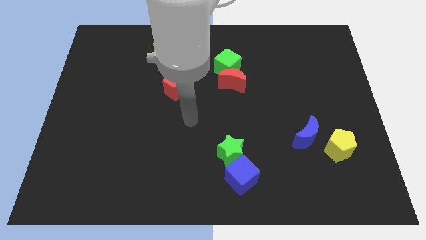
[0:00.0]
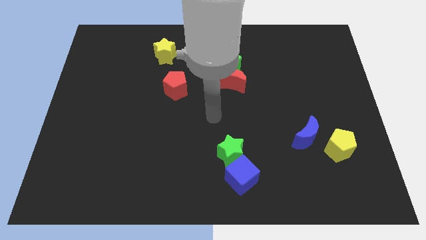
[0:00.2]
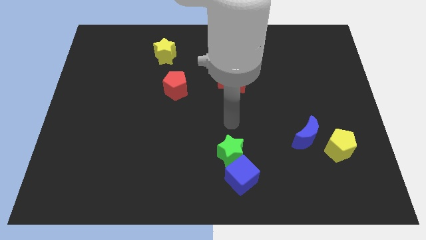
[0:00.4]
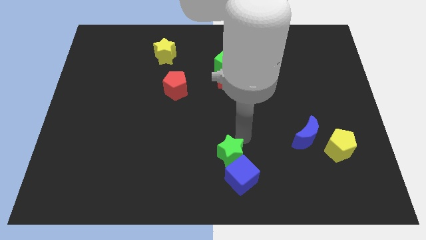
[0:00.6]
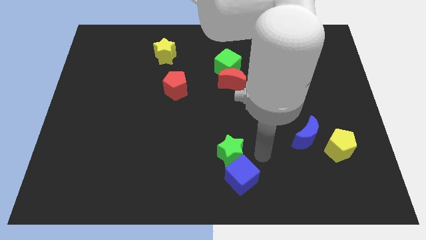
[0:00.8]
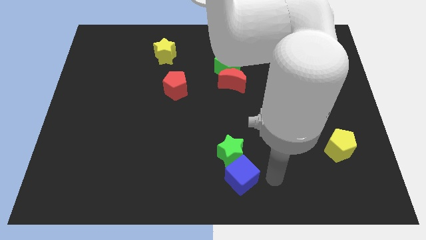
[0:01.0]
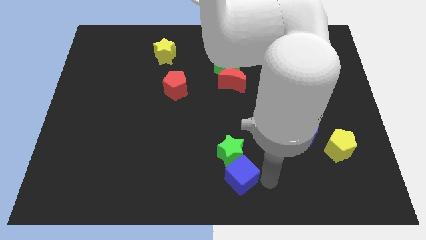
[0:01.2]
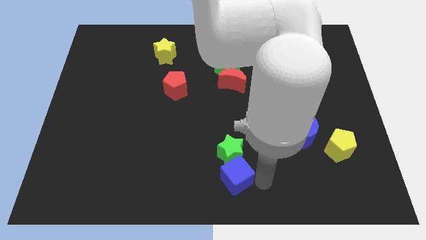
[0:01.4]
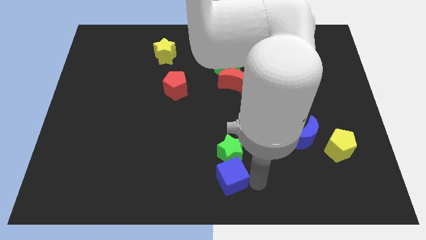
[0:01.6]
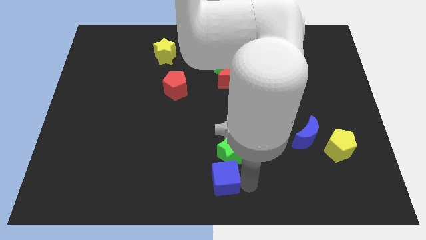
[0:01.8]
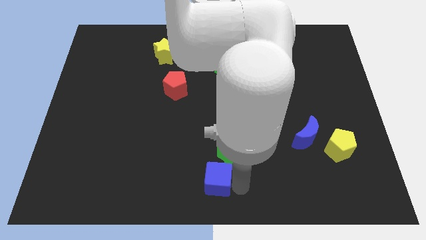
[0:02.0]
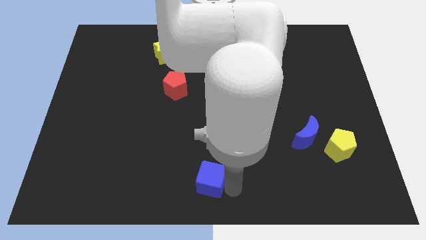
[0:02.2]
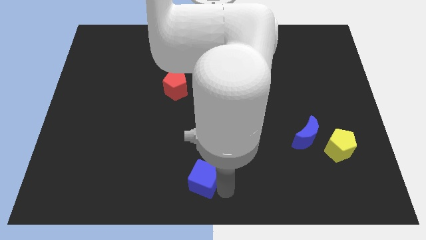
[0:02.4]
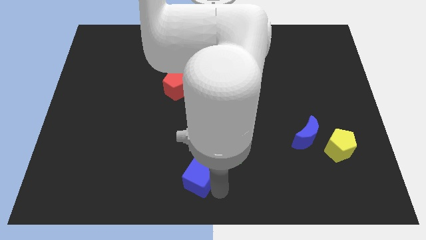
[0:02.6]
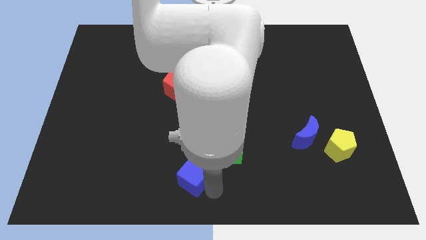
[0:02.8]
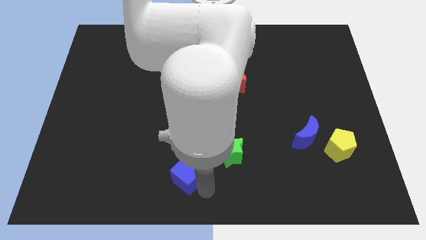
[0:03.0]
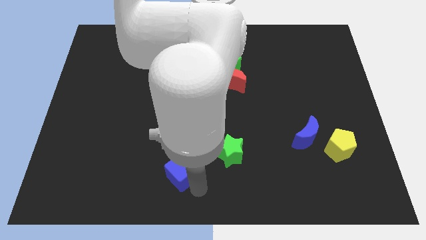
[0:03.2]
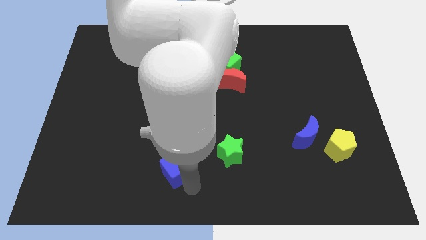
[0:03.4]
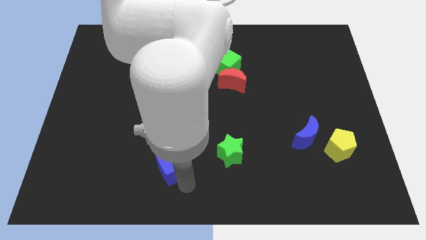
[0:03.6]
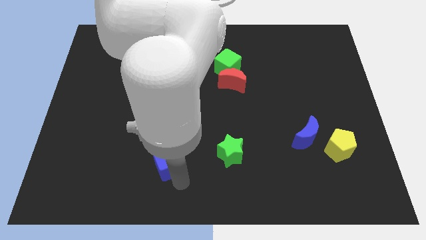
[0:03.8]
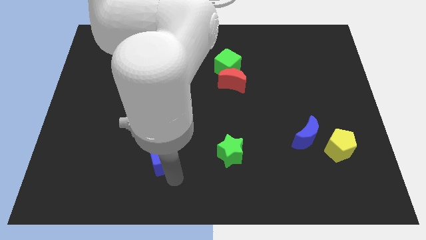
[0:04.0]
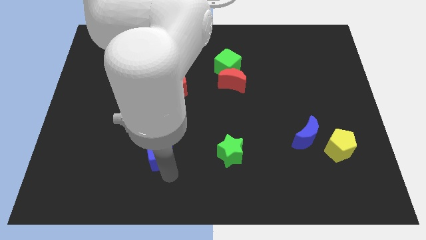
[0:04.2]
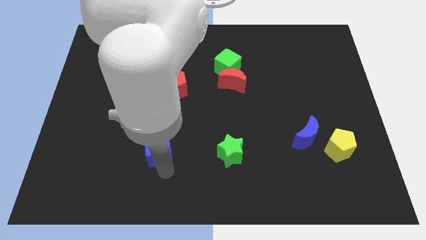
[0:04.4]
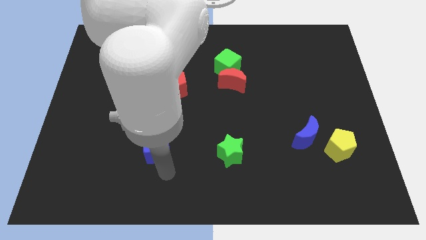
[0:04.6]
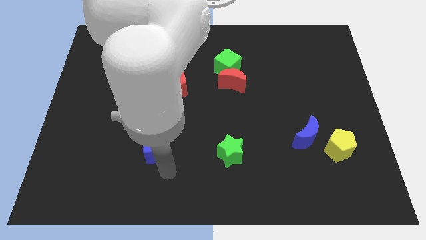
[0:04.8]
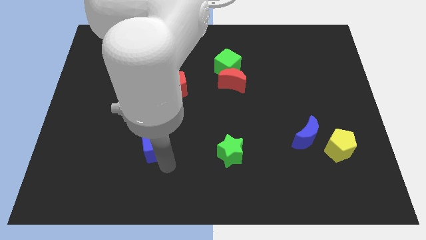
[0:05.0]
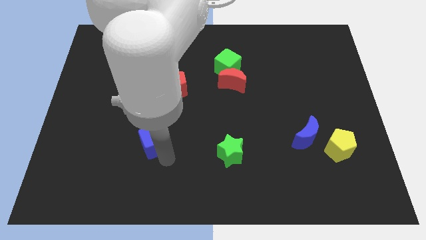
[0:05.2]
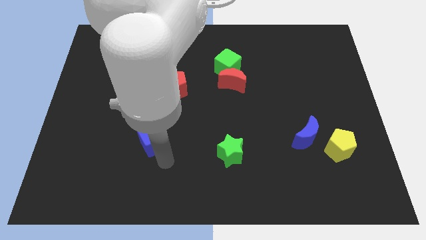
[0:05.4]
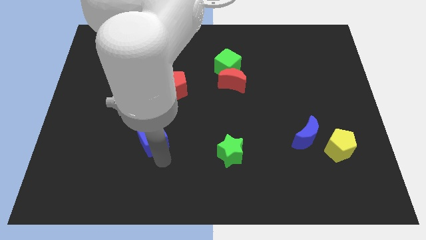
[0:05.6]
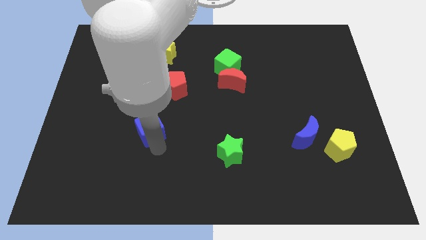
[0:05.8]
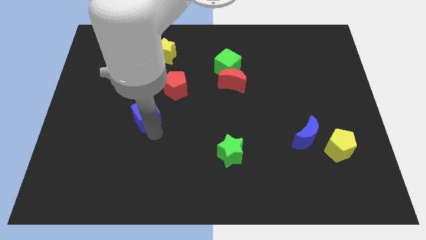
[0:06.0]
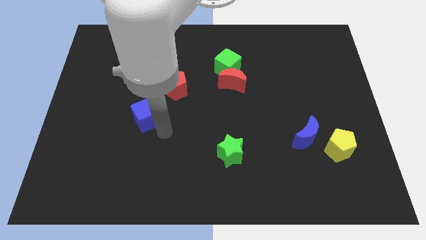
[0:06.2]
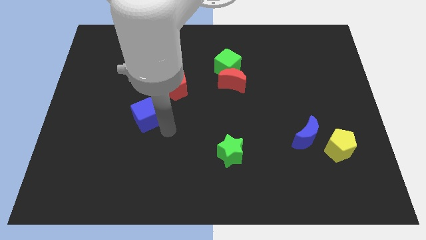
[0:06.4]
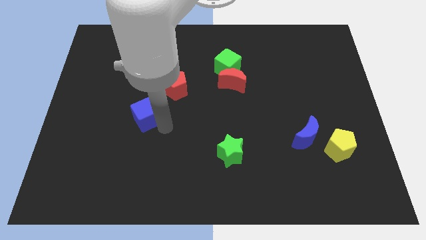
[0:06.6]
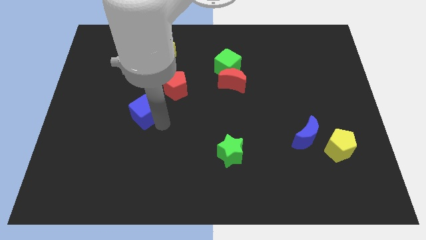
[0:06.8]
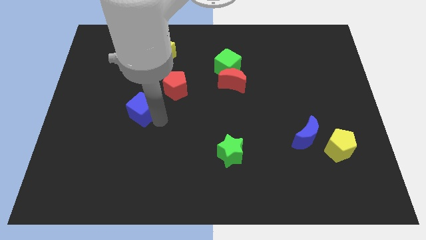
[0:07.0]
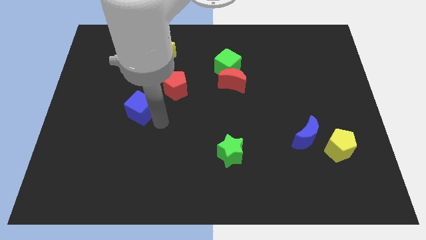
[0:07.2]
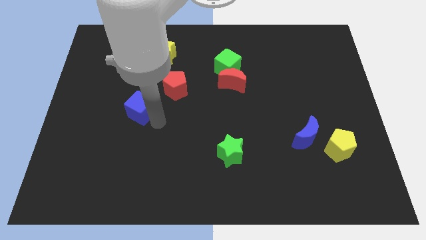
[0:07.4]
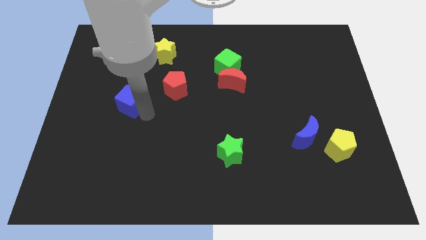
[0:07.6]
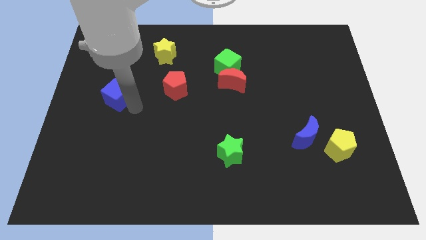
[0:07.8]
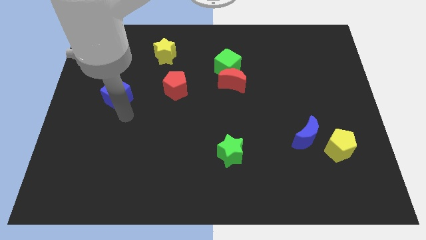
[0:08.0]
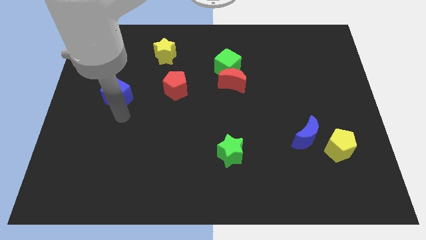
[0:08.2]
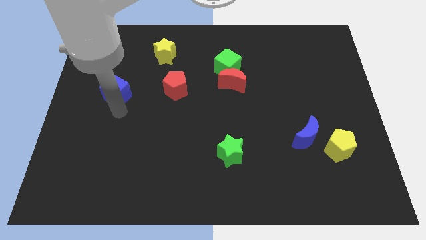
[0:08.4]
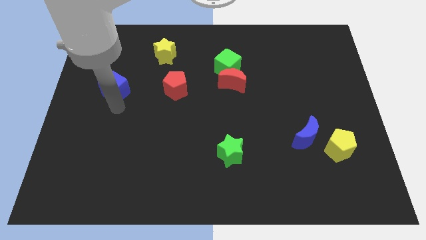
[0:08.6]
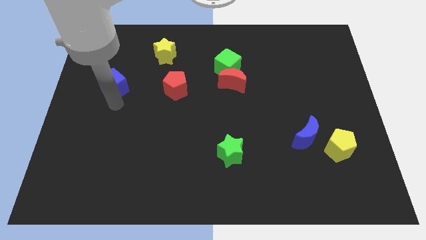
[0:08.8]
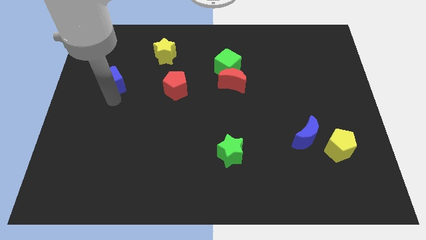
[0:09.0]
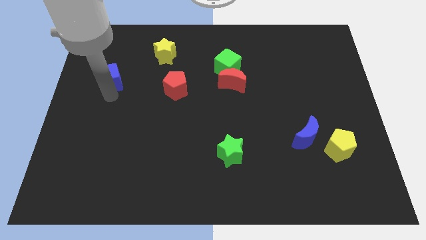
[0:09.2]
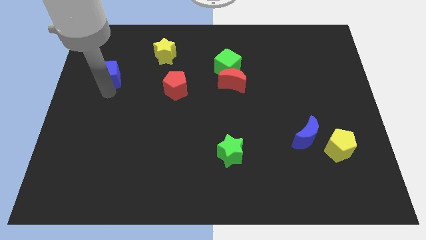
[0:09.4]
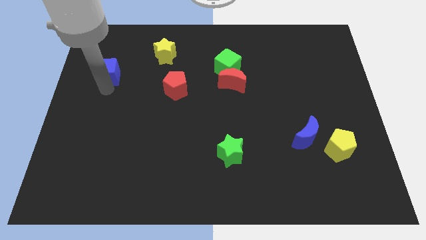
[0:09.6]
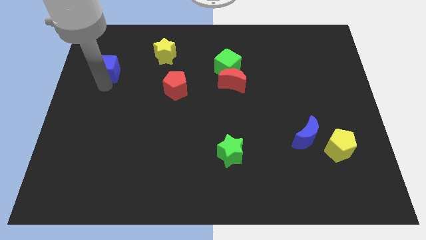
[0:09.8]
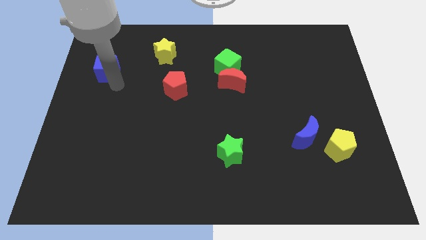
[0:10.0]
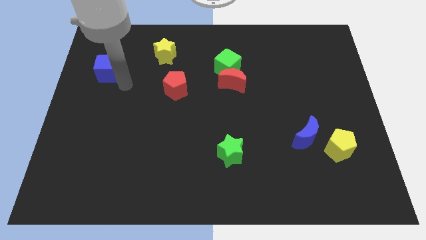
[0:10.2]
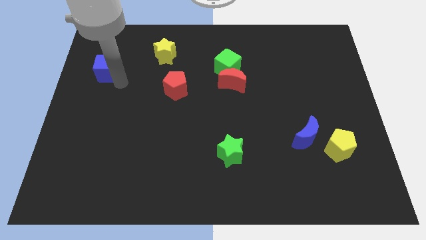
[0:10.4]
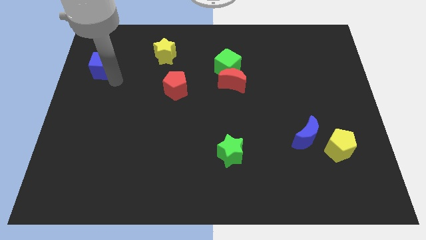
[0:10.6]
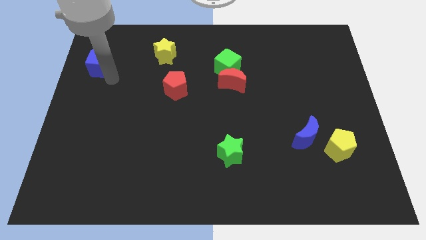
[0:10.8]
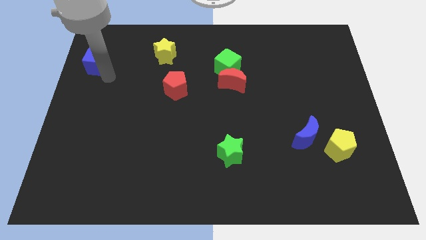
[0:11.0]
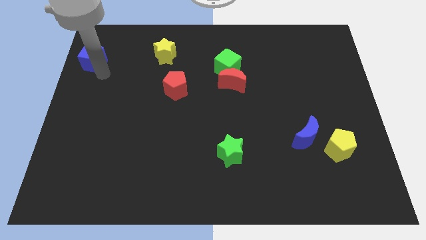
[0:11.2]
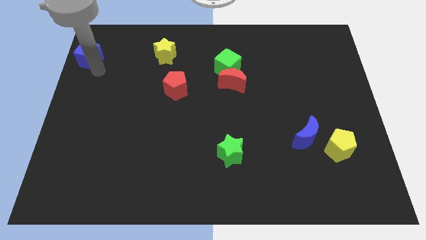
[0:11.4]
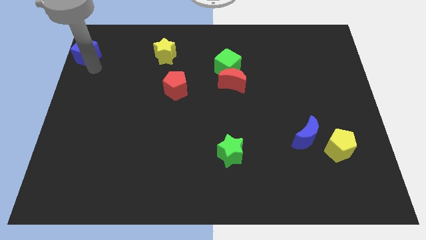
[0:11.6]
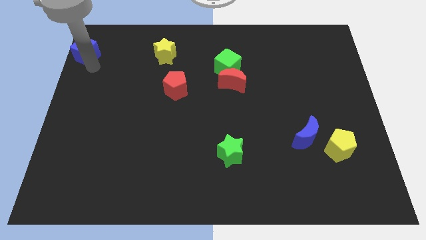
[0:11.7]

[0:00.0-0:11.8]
put the blue cube to the top left corner

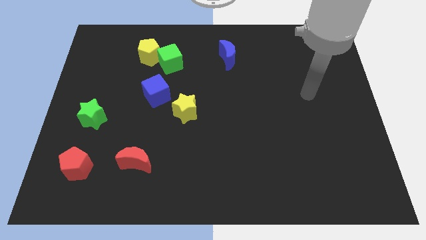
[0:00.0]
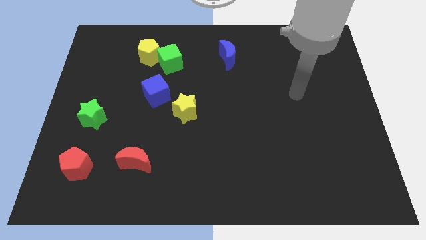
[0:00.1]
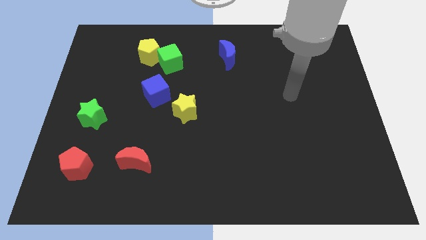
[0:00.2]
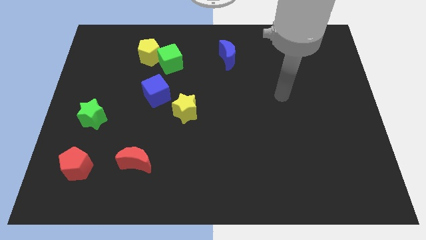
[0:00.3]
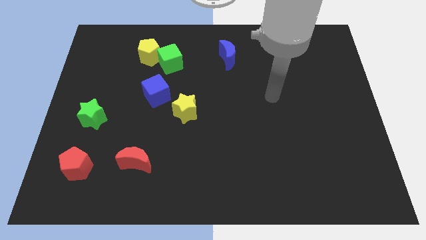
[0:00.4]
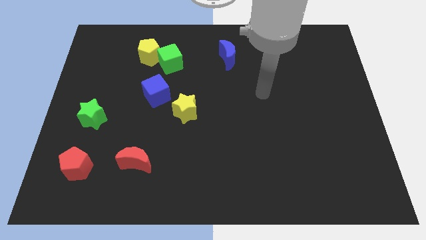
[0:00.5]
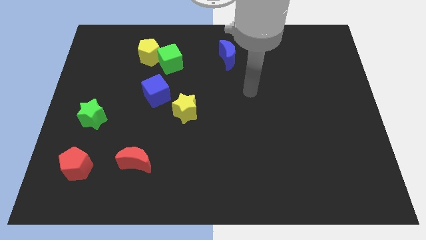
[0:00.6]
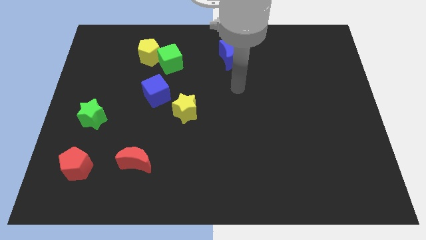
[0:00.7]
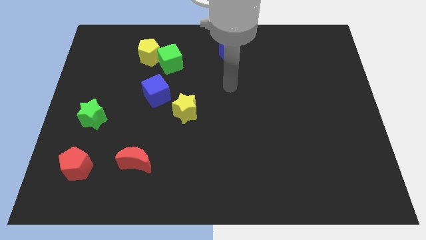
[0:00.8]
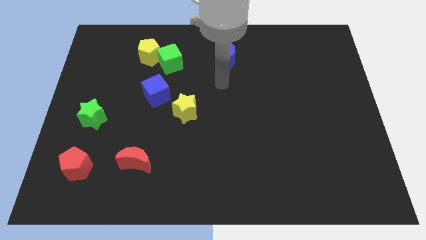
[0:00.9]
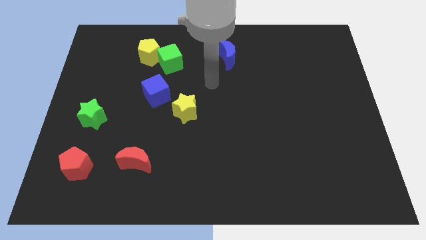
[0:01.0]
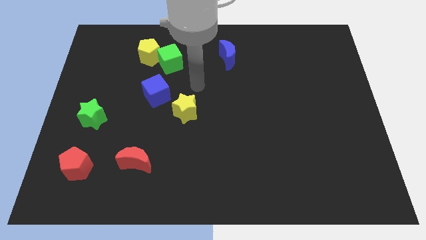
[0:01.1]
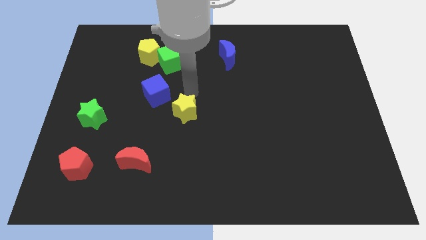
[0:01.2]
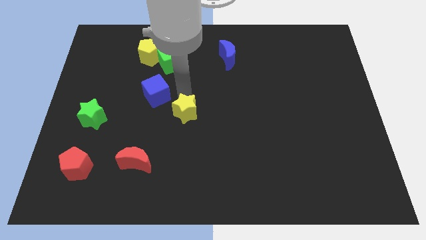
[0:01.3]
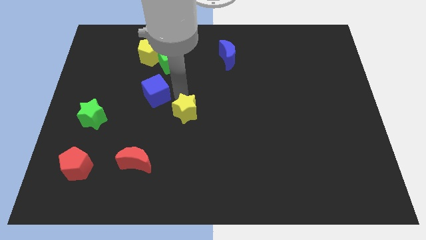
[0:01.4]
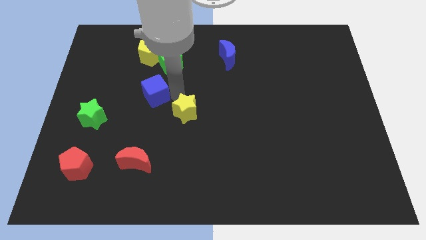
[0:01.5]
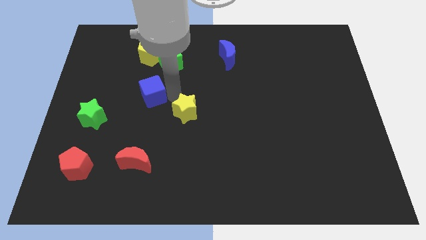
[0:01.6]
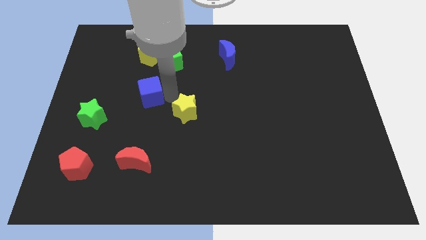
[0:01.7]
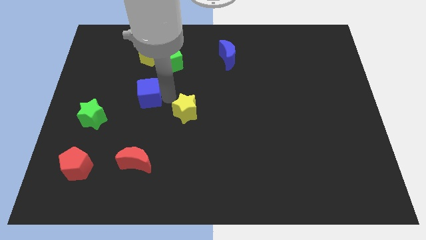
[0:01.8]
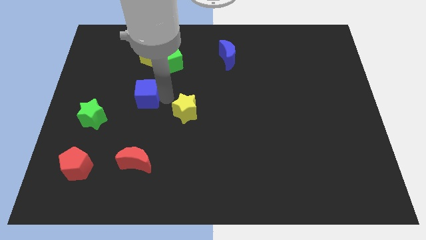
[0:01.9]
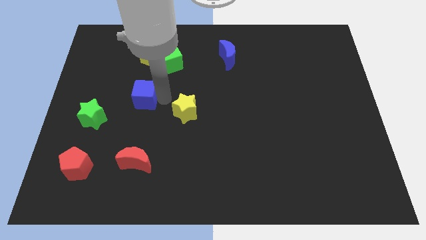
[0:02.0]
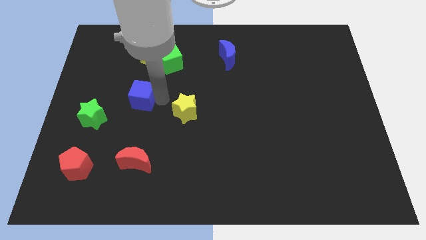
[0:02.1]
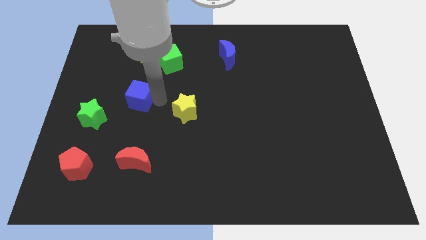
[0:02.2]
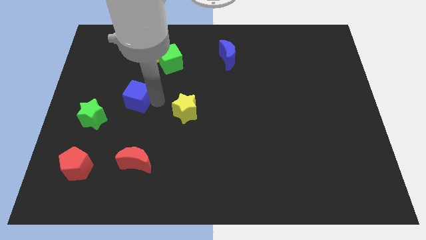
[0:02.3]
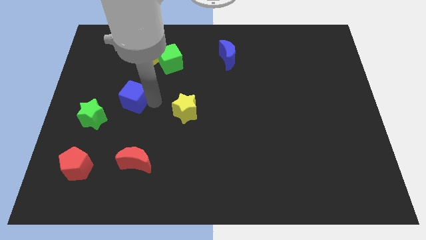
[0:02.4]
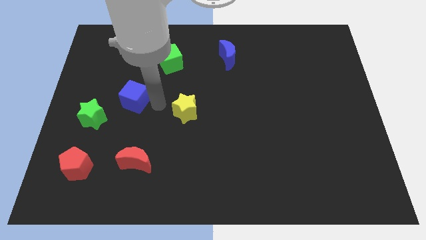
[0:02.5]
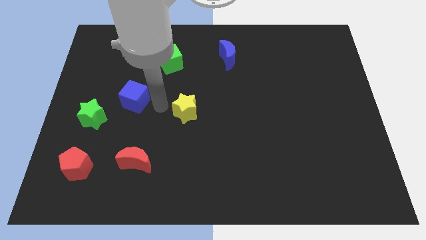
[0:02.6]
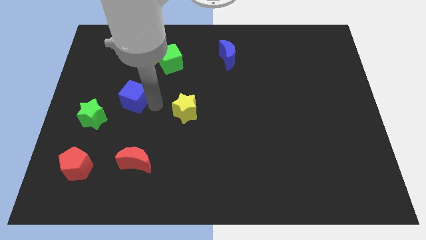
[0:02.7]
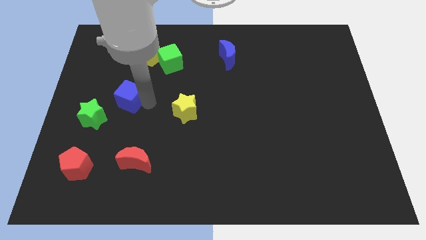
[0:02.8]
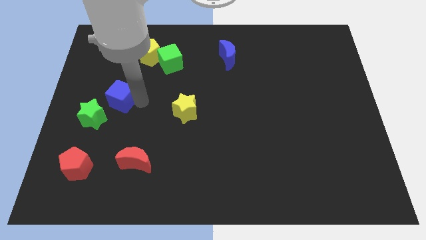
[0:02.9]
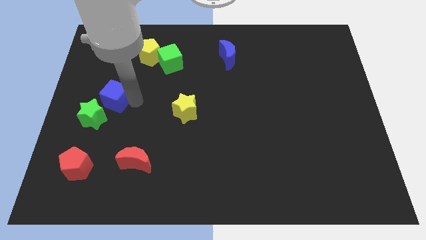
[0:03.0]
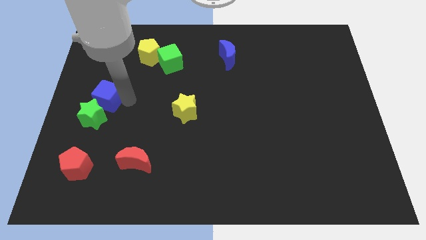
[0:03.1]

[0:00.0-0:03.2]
move the blue cube to the center left
